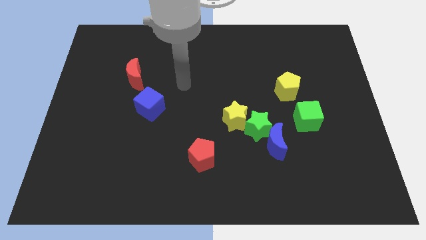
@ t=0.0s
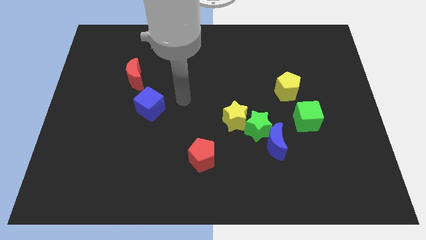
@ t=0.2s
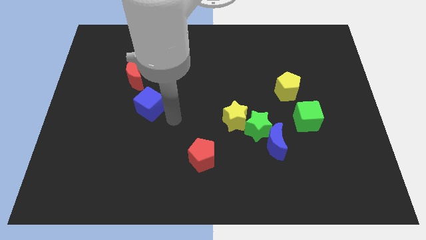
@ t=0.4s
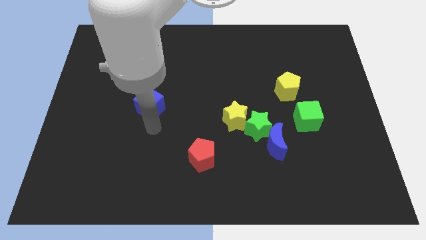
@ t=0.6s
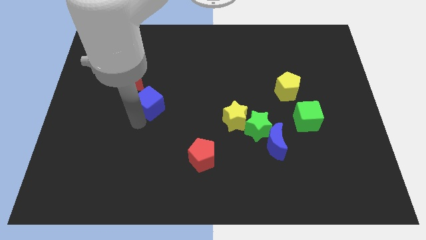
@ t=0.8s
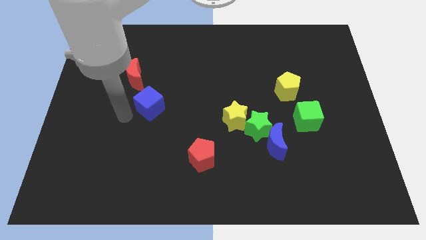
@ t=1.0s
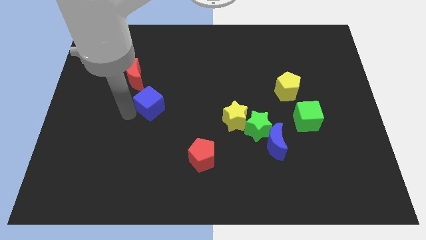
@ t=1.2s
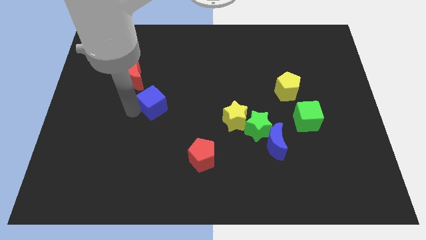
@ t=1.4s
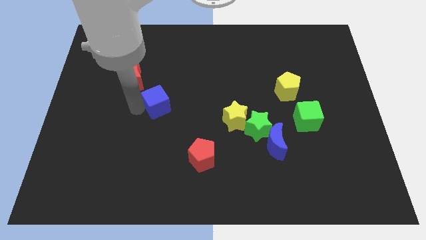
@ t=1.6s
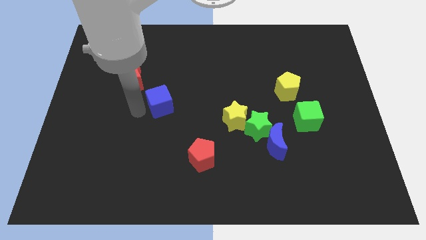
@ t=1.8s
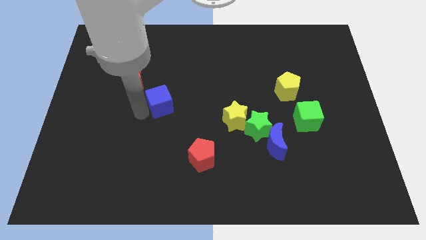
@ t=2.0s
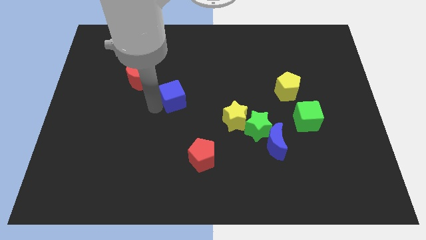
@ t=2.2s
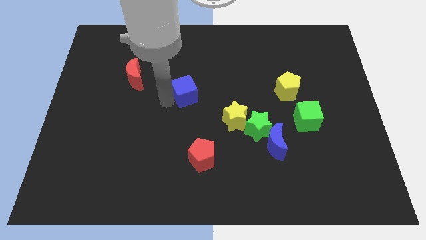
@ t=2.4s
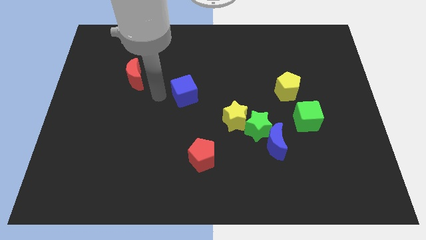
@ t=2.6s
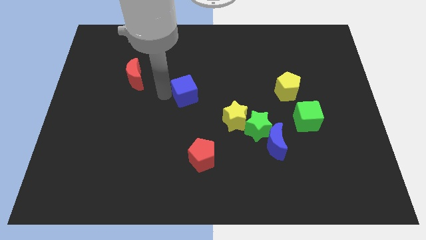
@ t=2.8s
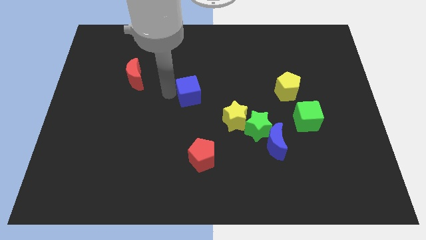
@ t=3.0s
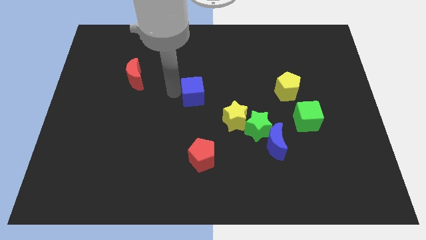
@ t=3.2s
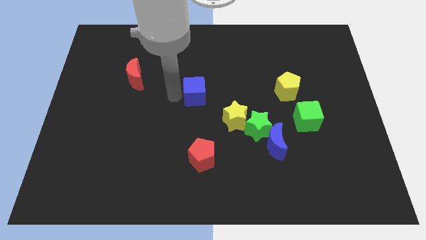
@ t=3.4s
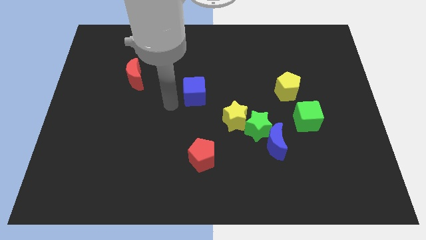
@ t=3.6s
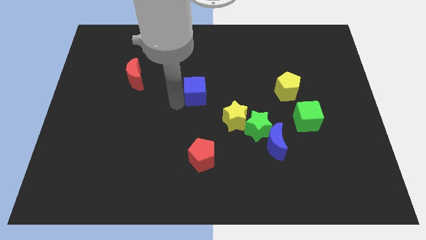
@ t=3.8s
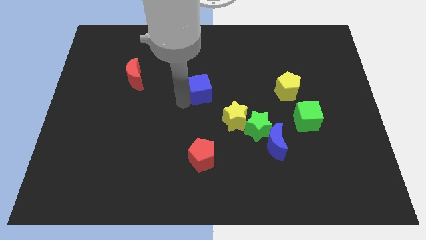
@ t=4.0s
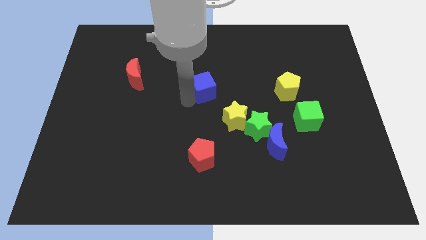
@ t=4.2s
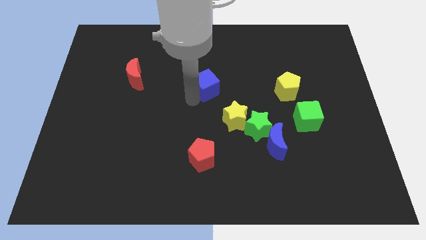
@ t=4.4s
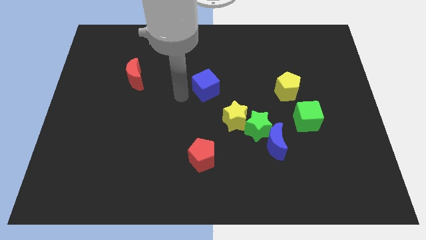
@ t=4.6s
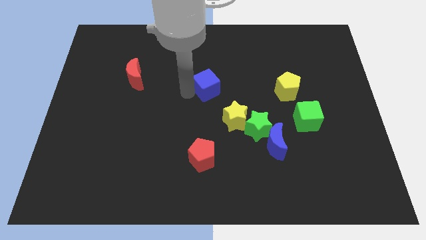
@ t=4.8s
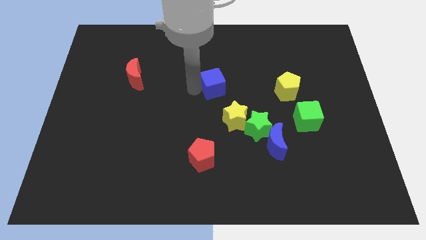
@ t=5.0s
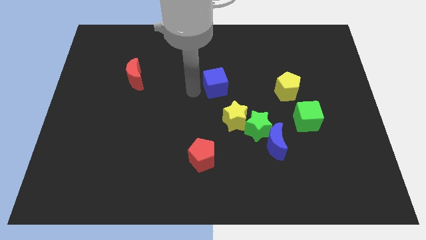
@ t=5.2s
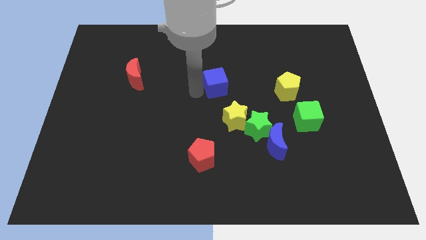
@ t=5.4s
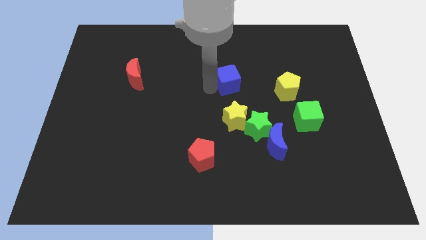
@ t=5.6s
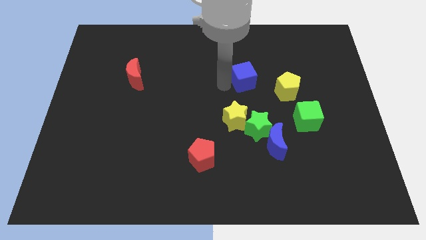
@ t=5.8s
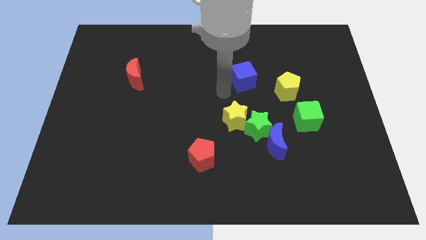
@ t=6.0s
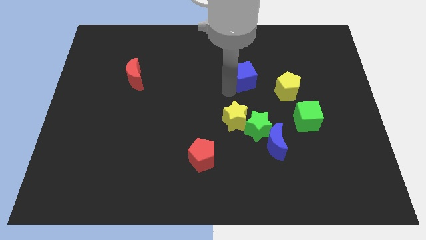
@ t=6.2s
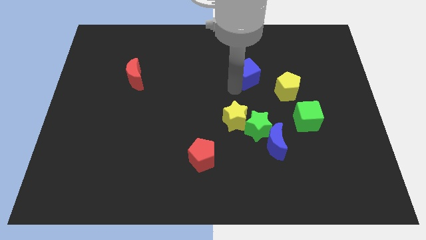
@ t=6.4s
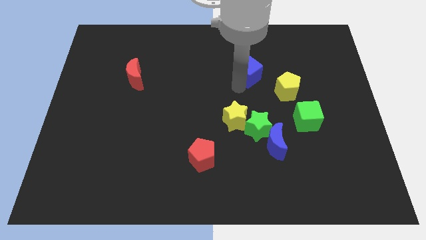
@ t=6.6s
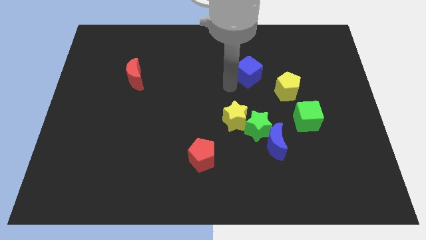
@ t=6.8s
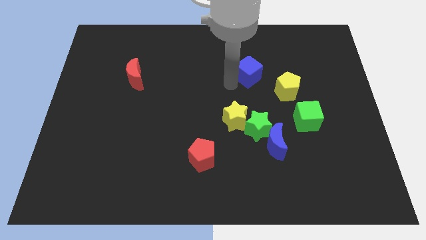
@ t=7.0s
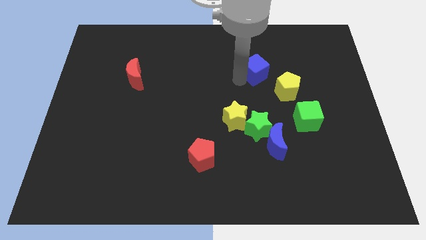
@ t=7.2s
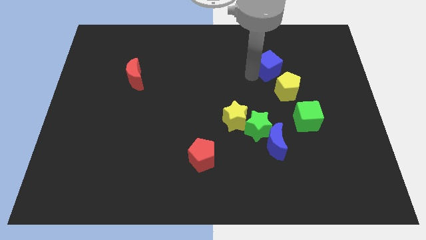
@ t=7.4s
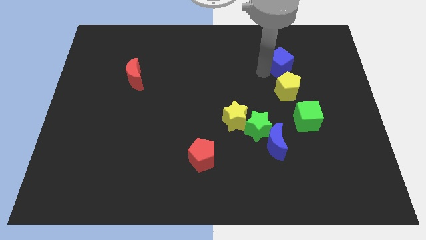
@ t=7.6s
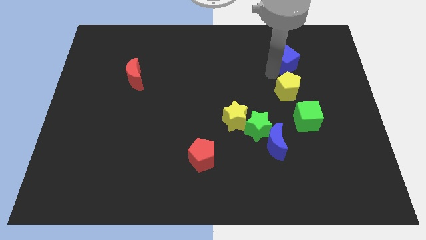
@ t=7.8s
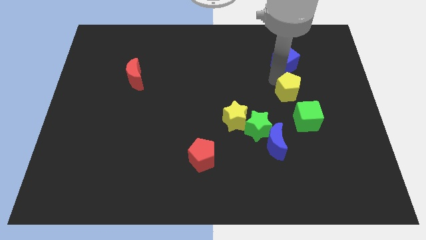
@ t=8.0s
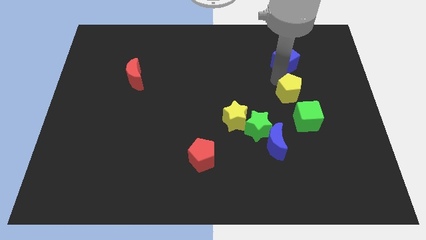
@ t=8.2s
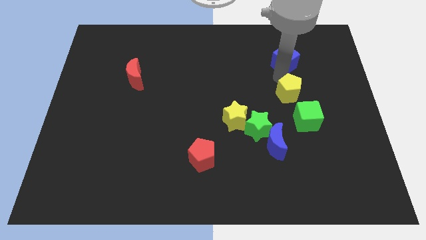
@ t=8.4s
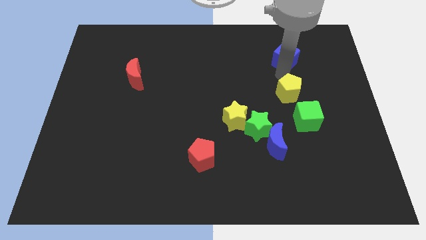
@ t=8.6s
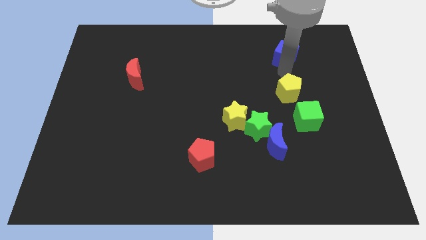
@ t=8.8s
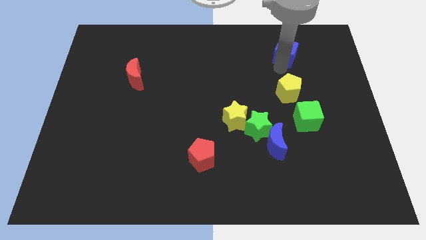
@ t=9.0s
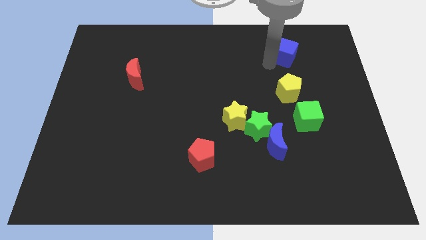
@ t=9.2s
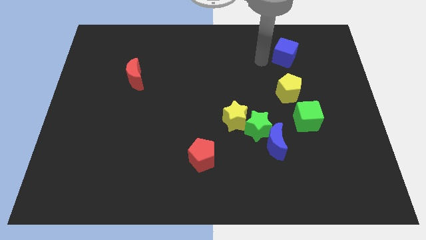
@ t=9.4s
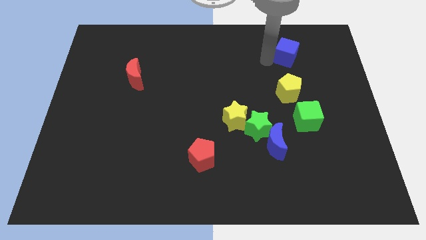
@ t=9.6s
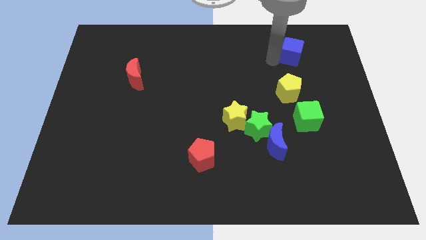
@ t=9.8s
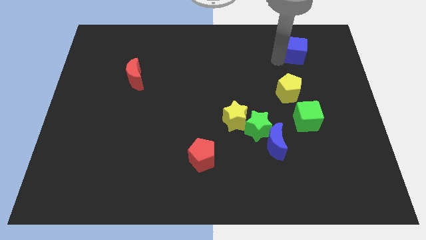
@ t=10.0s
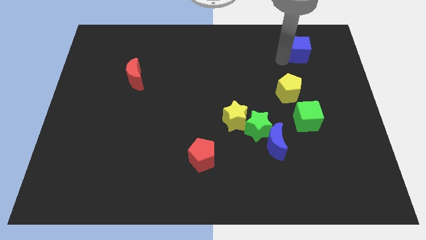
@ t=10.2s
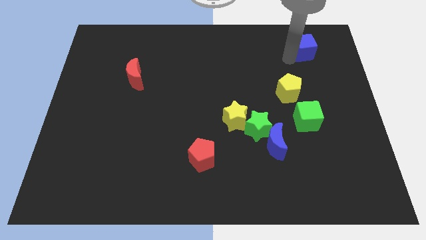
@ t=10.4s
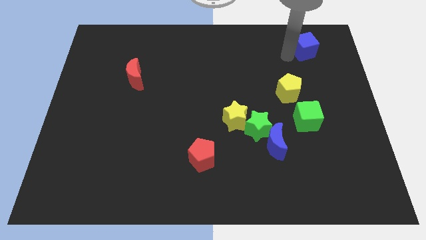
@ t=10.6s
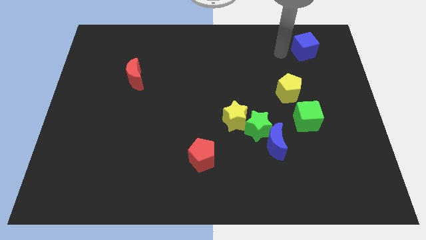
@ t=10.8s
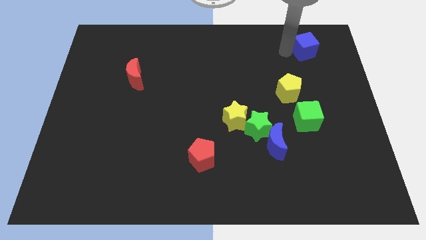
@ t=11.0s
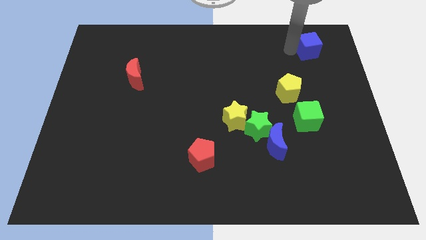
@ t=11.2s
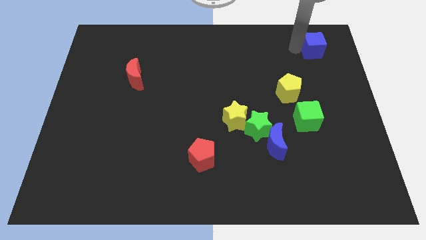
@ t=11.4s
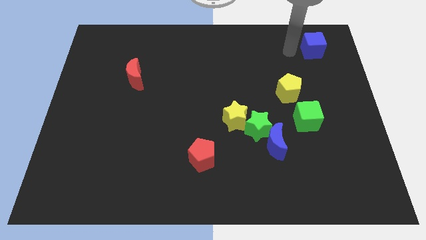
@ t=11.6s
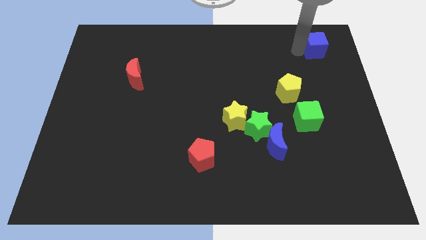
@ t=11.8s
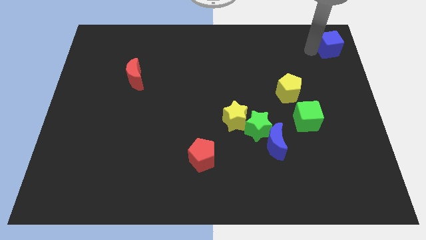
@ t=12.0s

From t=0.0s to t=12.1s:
move the blue cube to the top right of the board

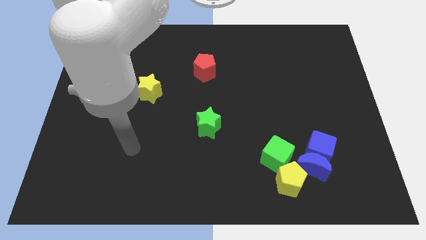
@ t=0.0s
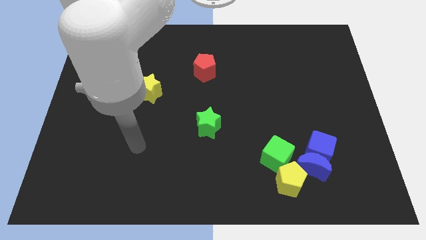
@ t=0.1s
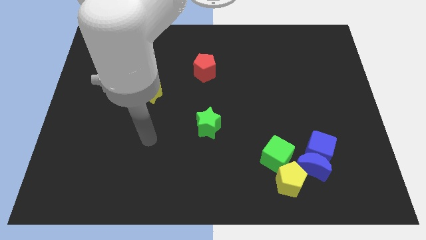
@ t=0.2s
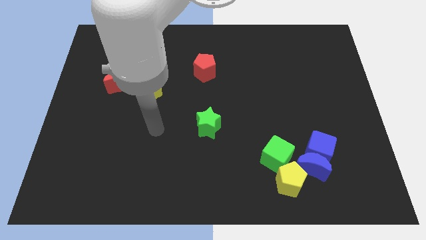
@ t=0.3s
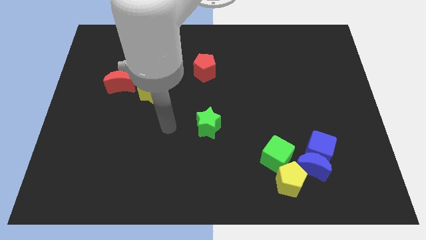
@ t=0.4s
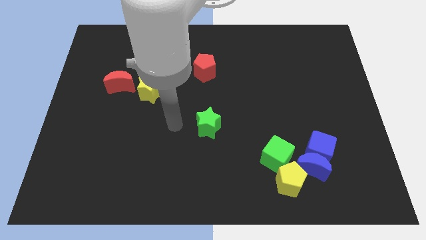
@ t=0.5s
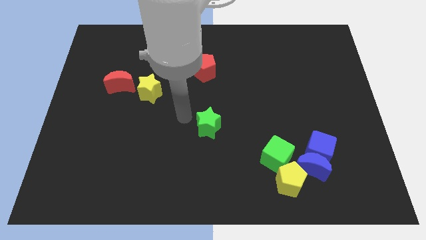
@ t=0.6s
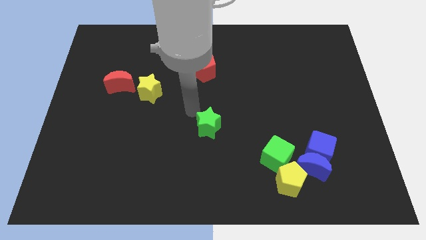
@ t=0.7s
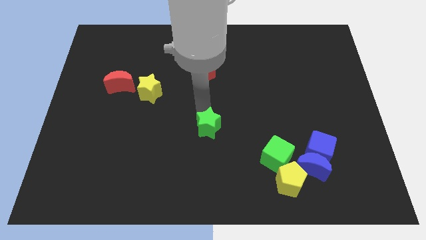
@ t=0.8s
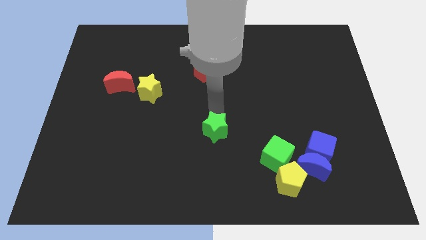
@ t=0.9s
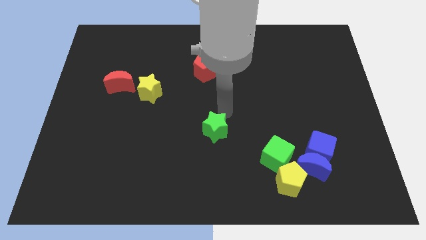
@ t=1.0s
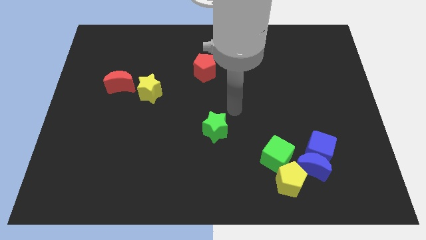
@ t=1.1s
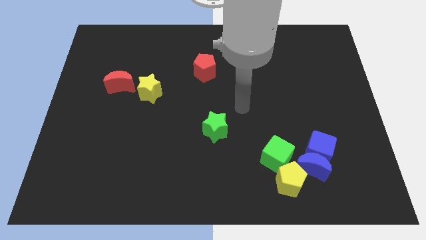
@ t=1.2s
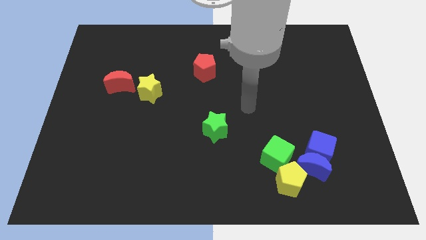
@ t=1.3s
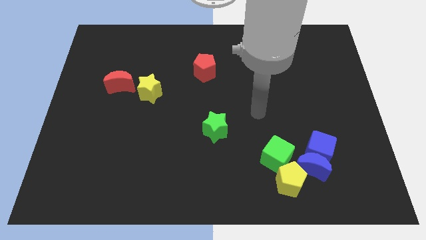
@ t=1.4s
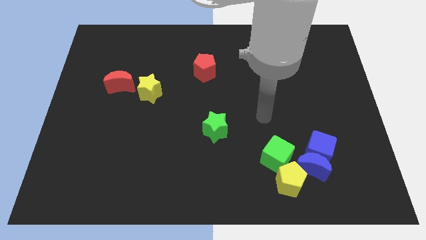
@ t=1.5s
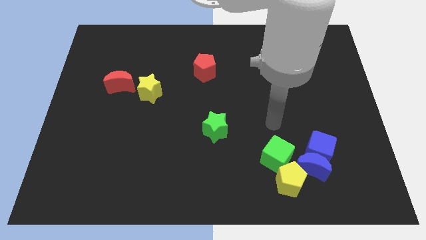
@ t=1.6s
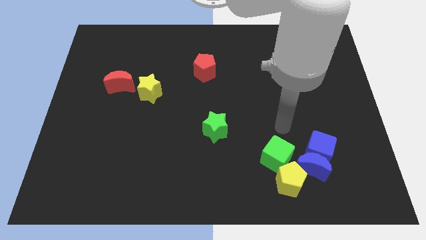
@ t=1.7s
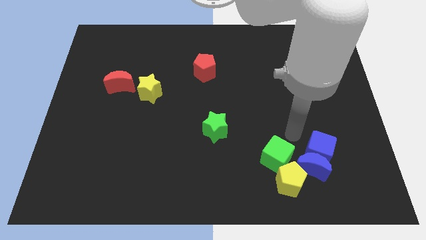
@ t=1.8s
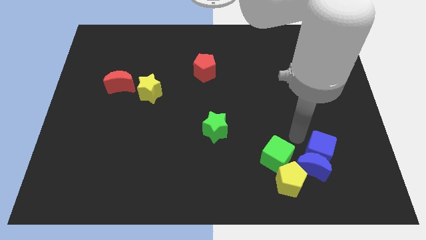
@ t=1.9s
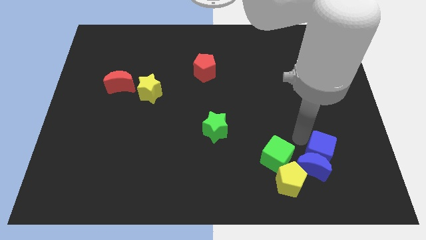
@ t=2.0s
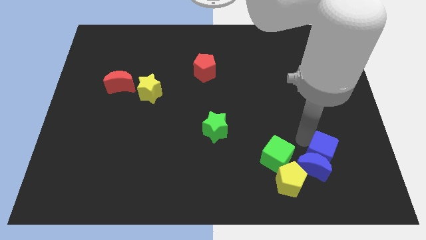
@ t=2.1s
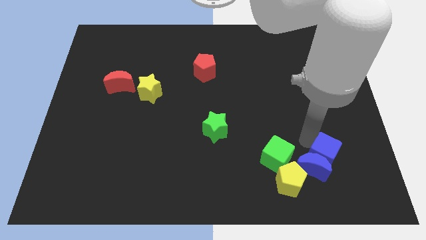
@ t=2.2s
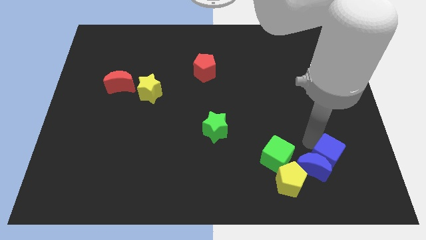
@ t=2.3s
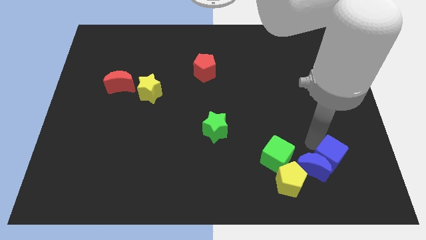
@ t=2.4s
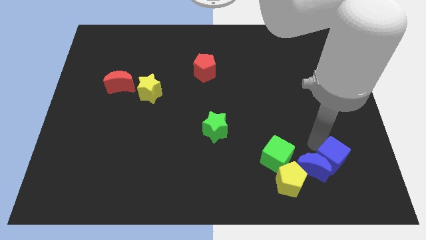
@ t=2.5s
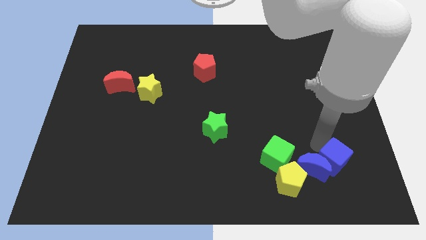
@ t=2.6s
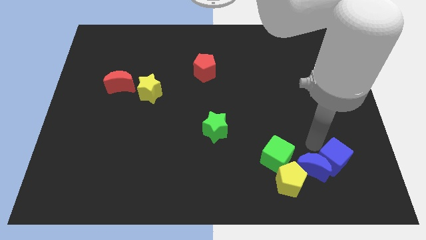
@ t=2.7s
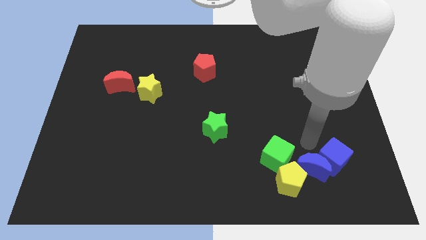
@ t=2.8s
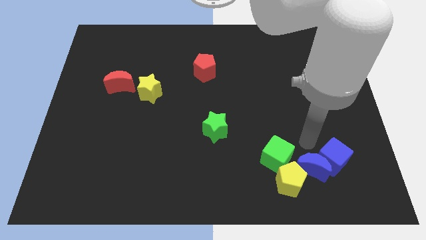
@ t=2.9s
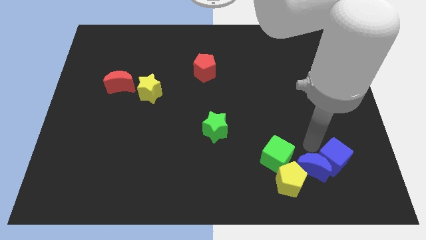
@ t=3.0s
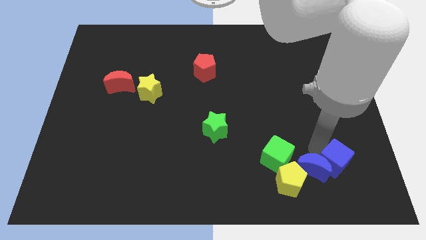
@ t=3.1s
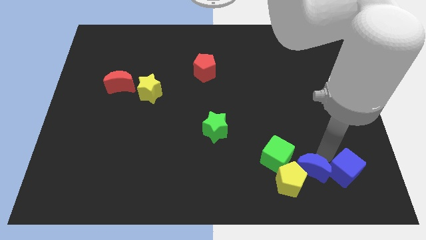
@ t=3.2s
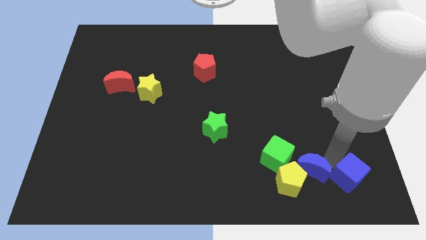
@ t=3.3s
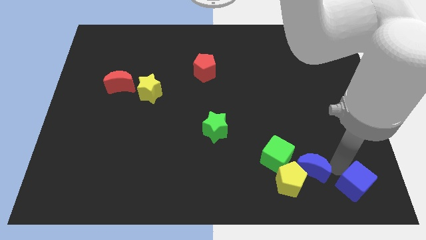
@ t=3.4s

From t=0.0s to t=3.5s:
move the blue cube to the bottom right
